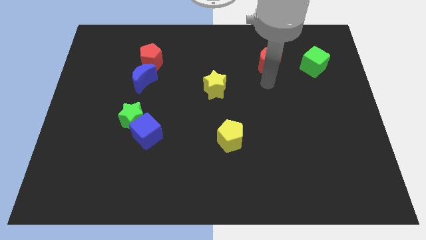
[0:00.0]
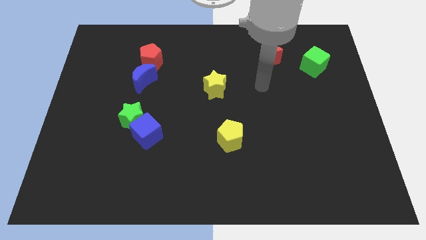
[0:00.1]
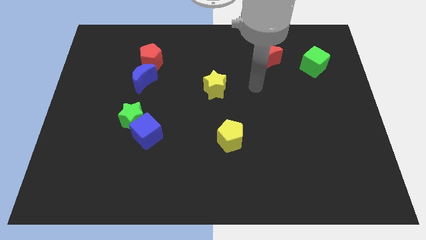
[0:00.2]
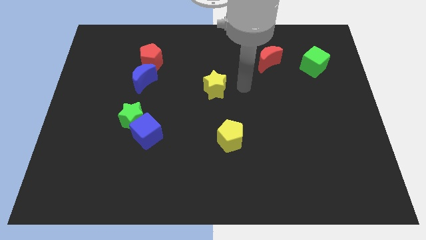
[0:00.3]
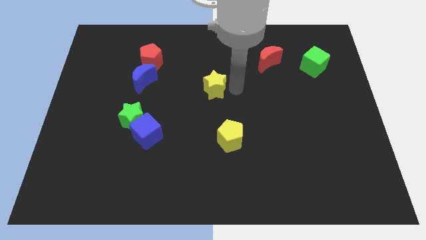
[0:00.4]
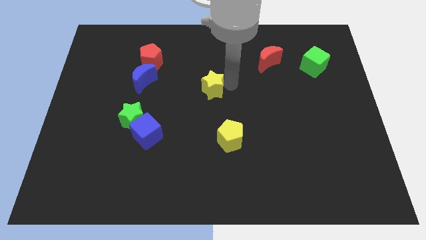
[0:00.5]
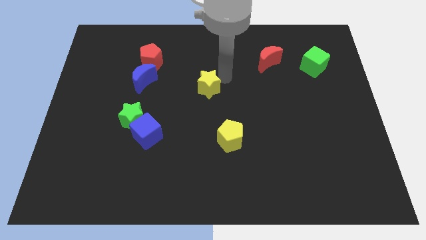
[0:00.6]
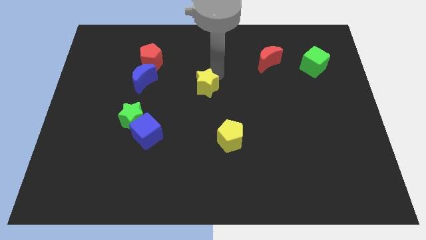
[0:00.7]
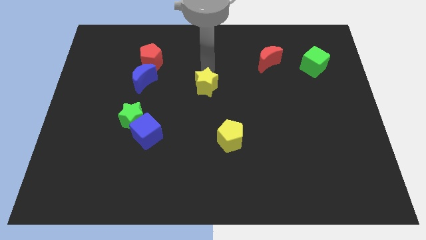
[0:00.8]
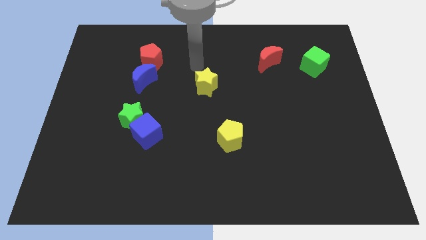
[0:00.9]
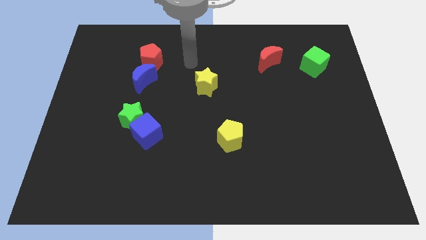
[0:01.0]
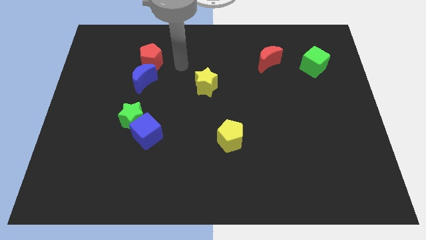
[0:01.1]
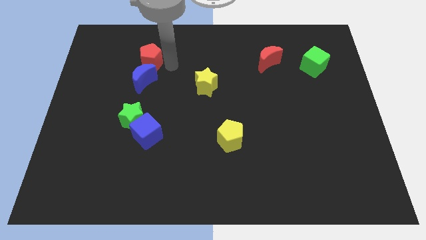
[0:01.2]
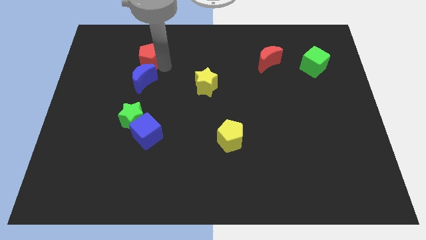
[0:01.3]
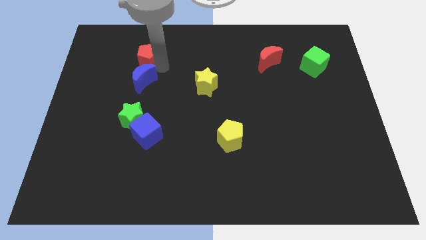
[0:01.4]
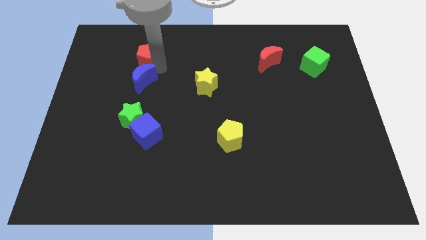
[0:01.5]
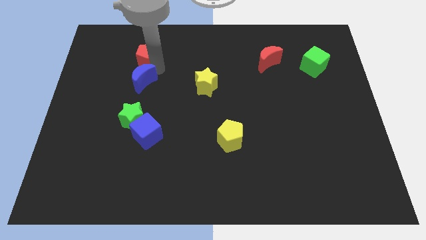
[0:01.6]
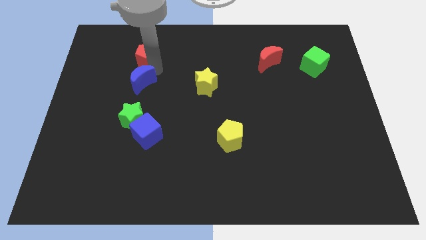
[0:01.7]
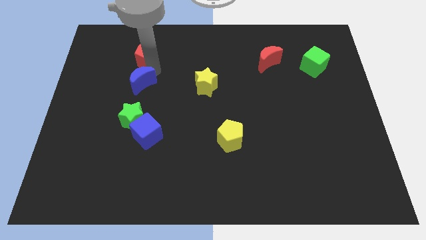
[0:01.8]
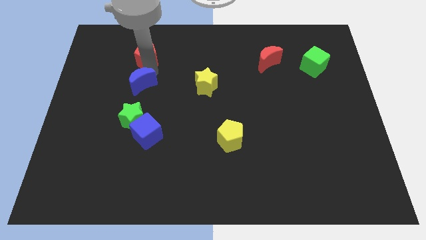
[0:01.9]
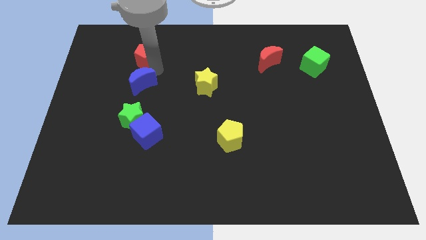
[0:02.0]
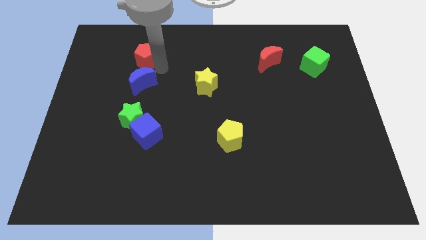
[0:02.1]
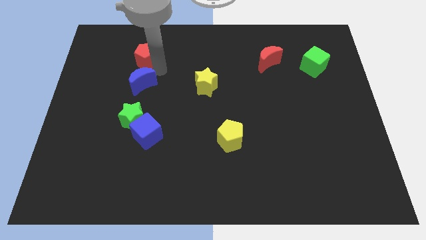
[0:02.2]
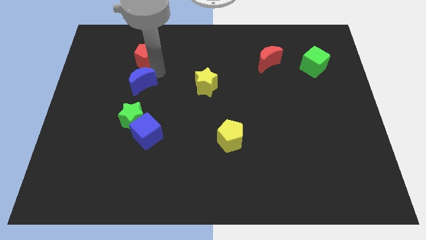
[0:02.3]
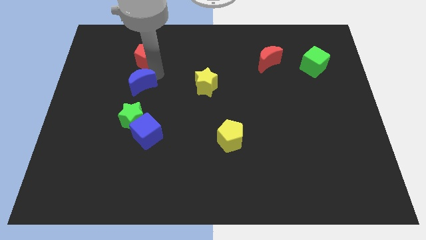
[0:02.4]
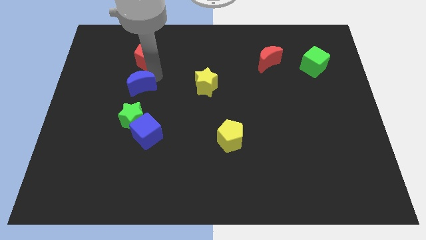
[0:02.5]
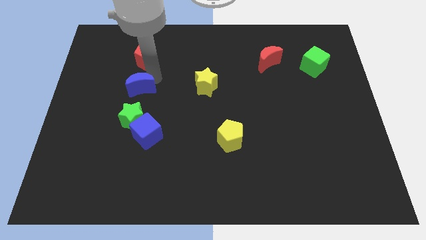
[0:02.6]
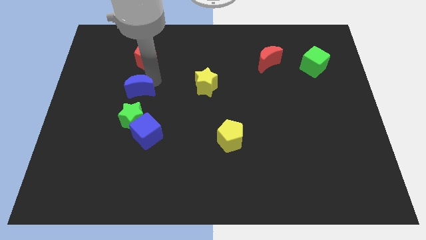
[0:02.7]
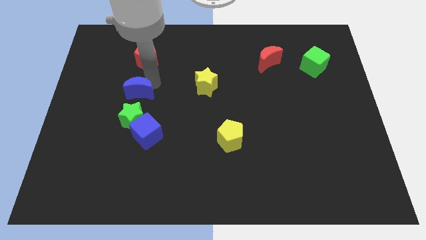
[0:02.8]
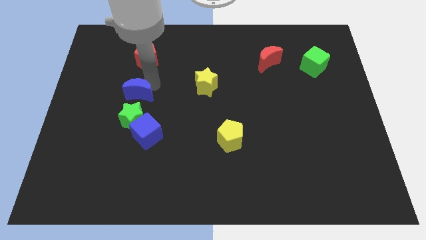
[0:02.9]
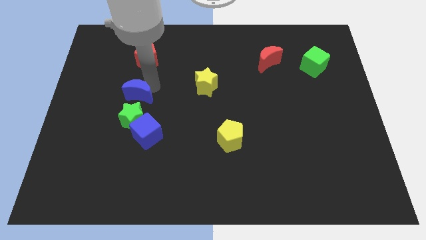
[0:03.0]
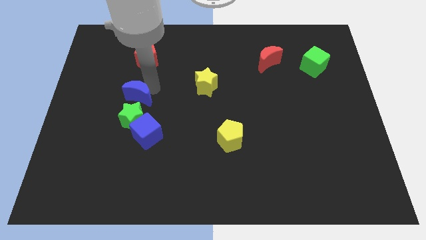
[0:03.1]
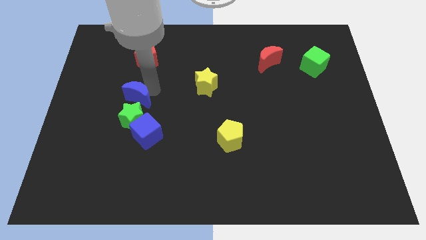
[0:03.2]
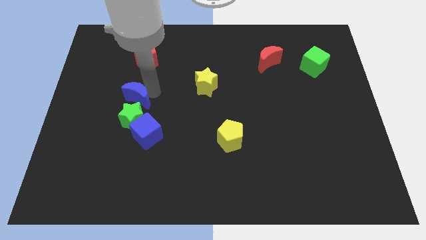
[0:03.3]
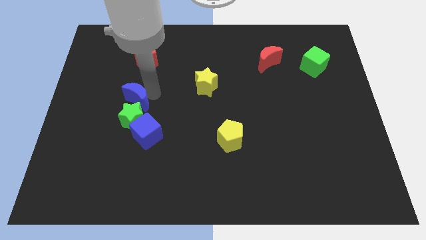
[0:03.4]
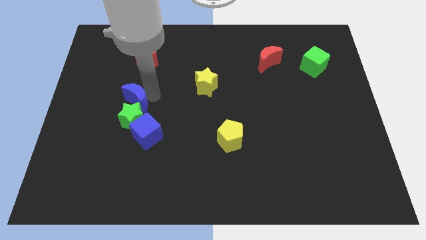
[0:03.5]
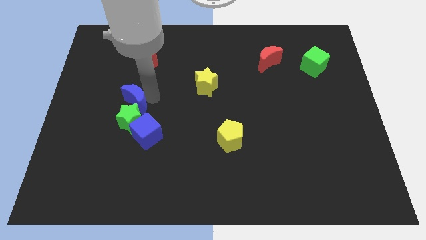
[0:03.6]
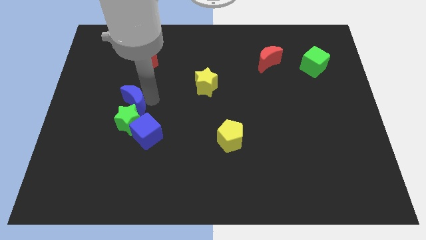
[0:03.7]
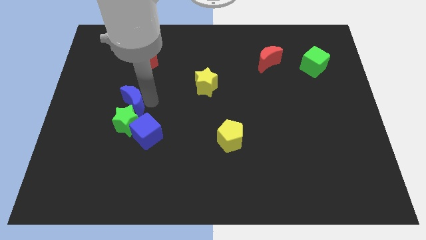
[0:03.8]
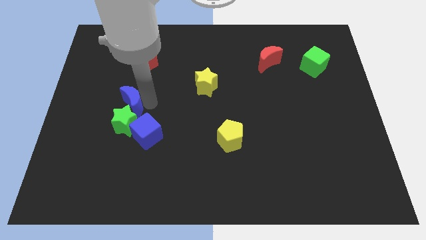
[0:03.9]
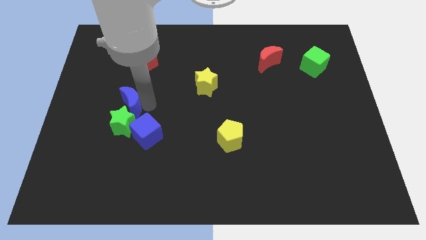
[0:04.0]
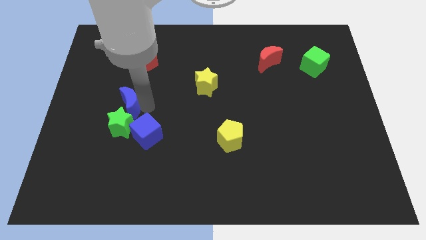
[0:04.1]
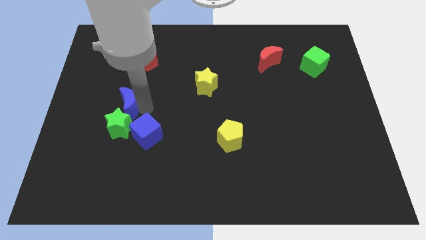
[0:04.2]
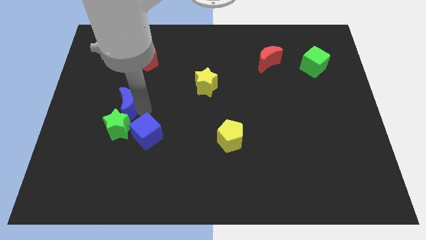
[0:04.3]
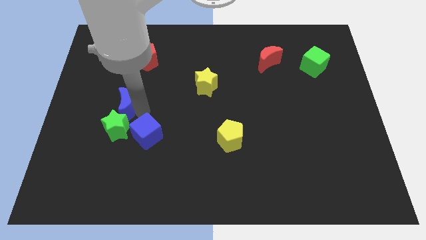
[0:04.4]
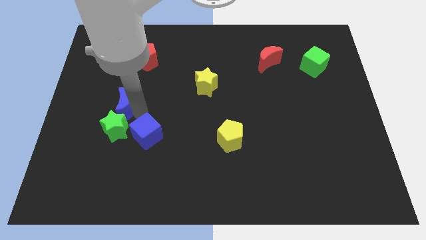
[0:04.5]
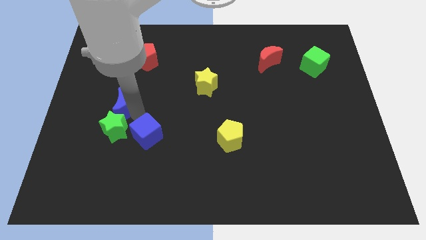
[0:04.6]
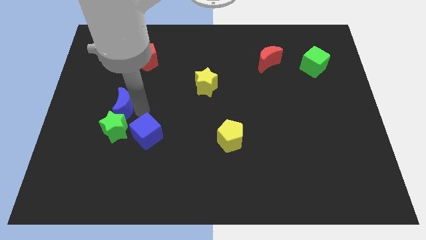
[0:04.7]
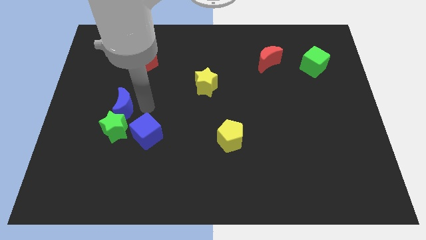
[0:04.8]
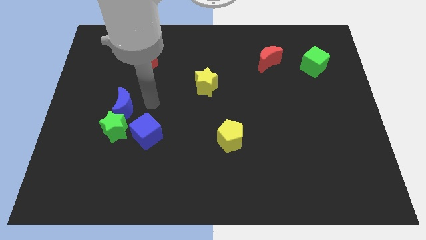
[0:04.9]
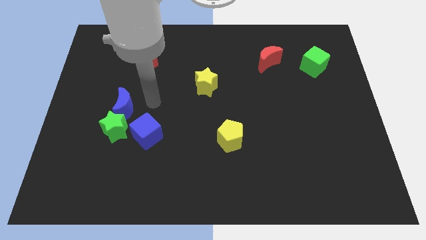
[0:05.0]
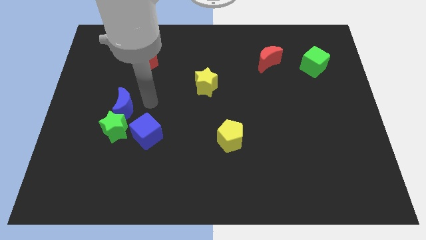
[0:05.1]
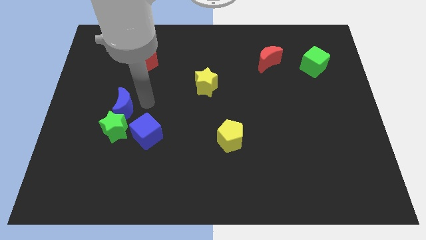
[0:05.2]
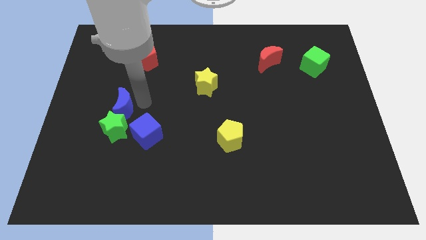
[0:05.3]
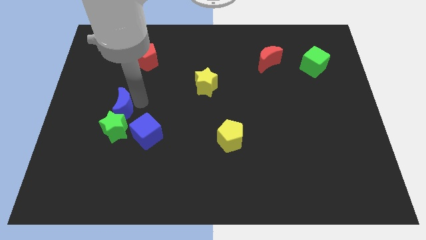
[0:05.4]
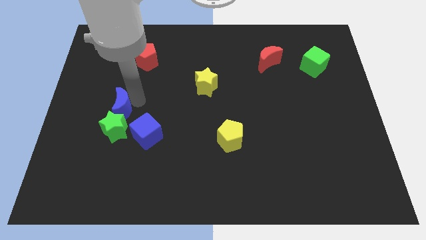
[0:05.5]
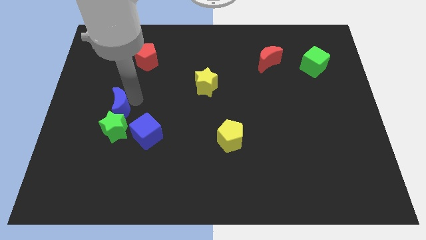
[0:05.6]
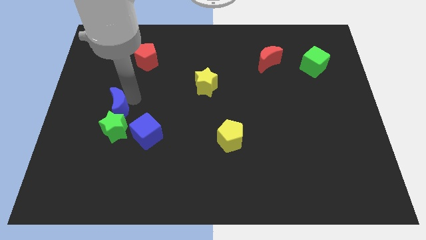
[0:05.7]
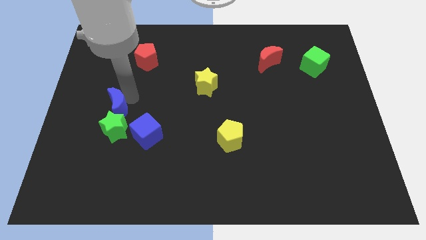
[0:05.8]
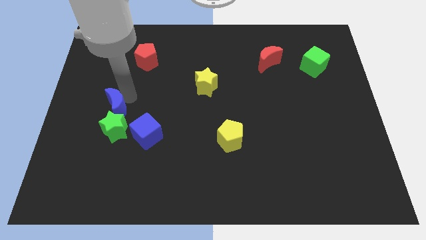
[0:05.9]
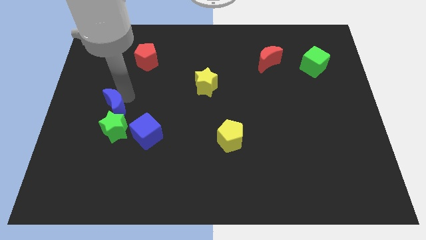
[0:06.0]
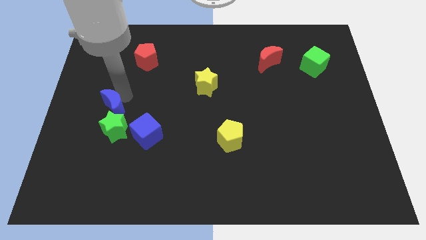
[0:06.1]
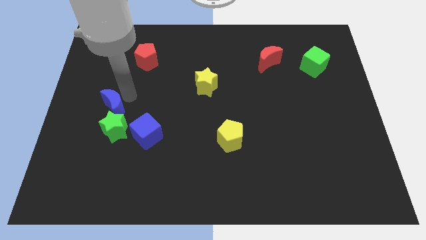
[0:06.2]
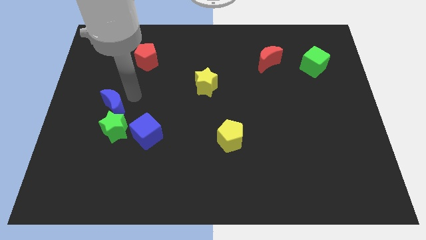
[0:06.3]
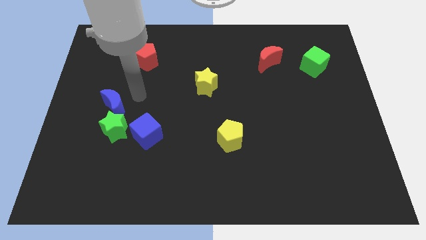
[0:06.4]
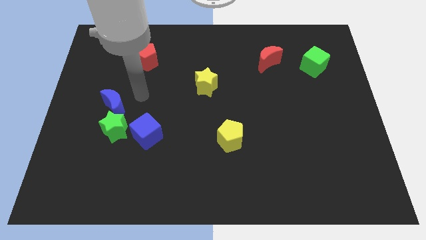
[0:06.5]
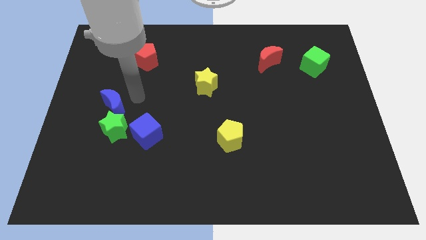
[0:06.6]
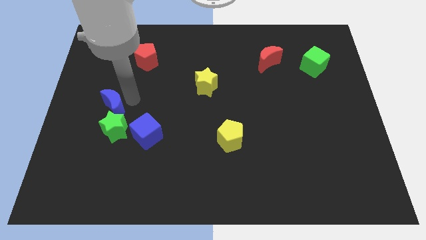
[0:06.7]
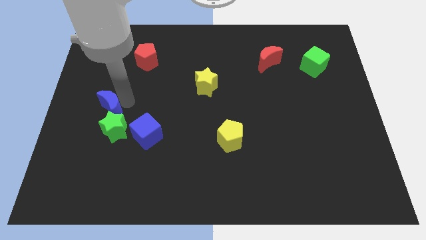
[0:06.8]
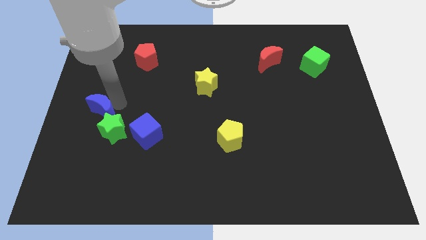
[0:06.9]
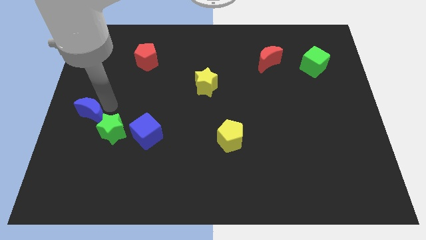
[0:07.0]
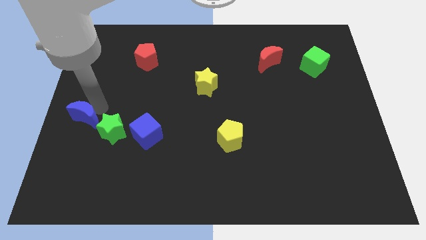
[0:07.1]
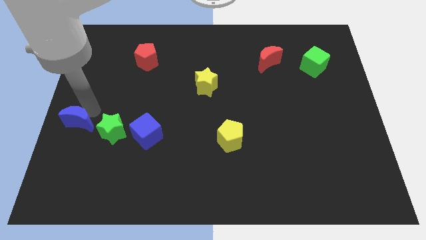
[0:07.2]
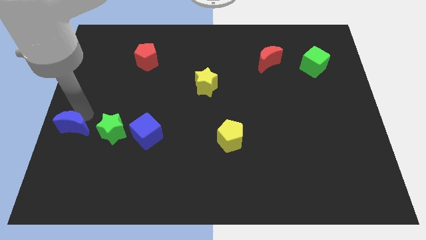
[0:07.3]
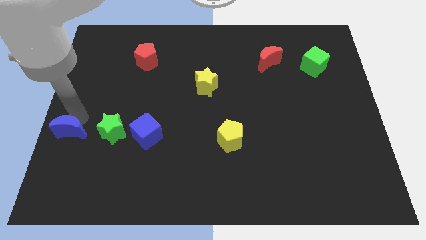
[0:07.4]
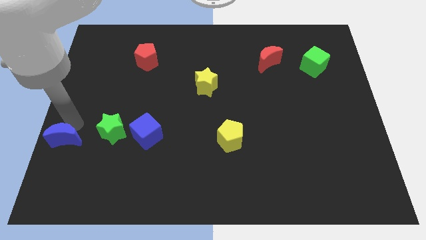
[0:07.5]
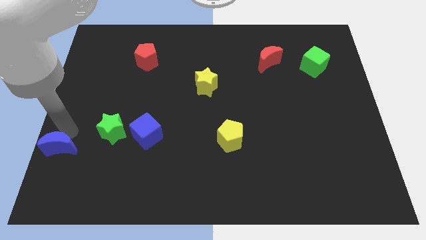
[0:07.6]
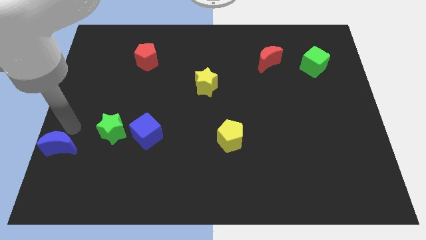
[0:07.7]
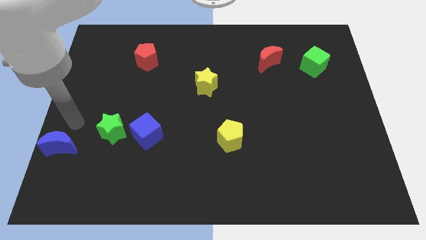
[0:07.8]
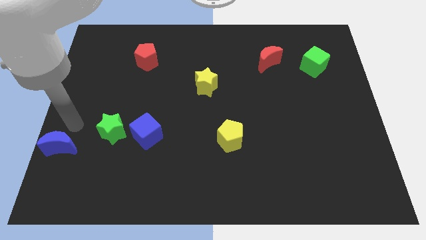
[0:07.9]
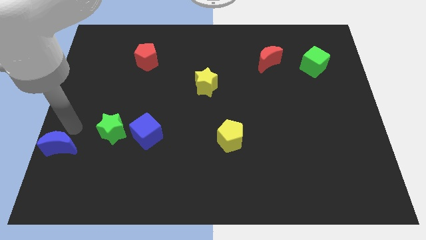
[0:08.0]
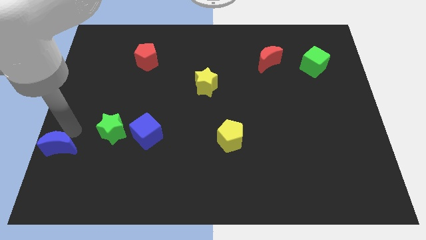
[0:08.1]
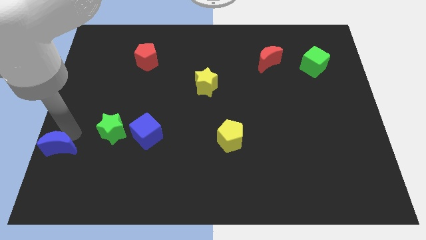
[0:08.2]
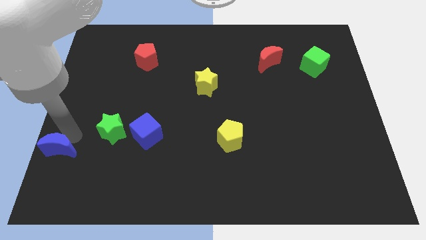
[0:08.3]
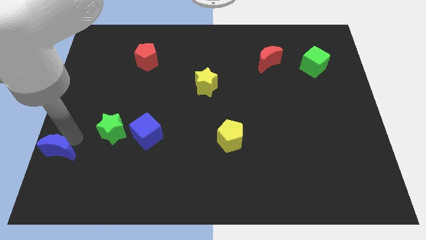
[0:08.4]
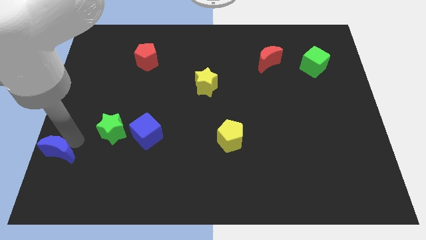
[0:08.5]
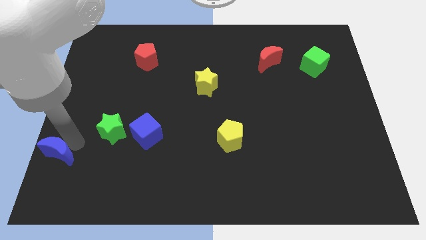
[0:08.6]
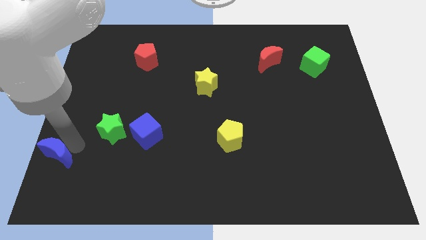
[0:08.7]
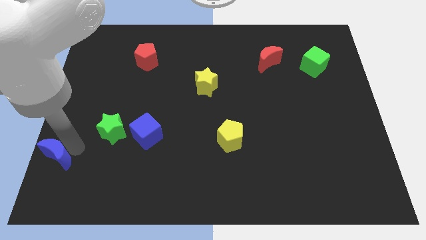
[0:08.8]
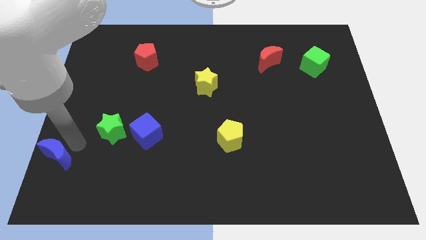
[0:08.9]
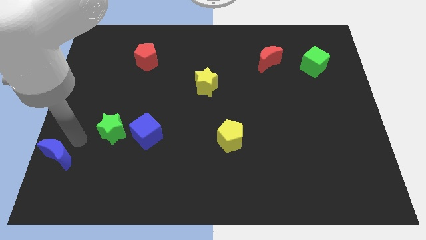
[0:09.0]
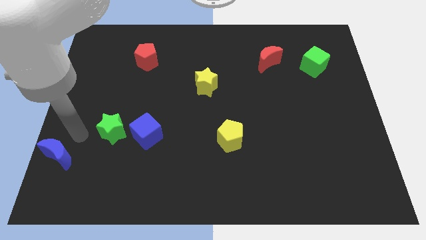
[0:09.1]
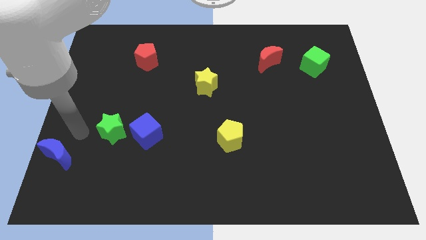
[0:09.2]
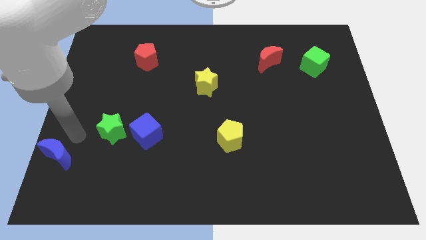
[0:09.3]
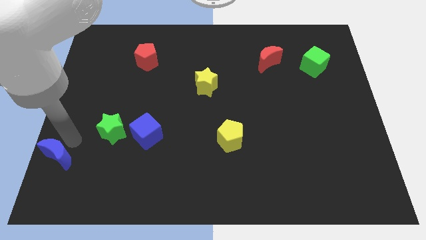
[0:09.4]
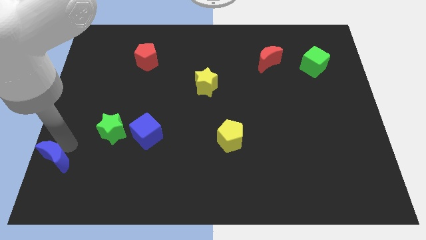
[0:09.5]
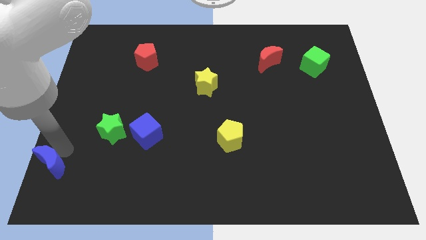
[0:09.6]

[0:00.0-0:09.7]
put the blue moon to the lower left corner
